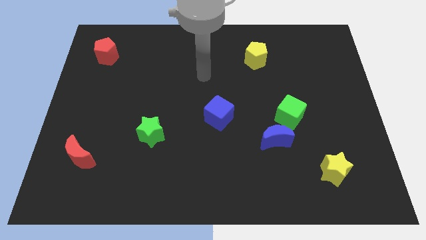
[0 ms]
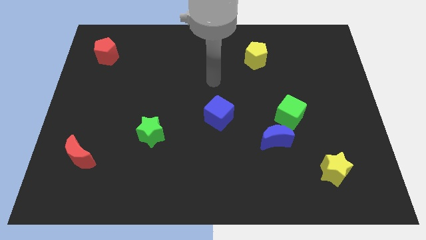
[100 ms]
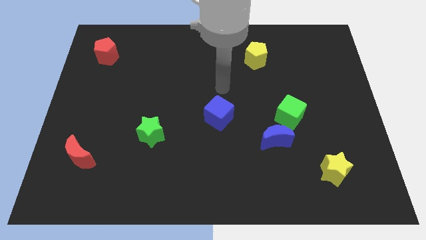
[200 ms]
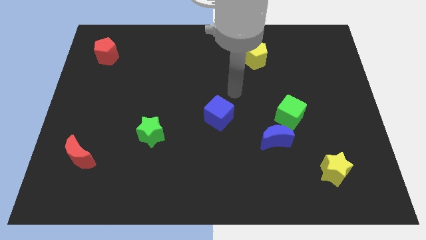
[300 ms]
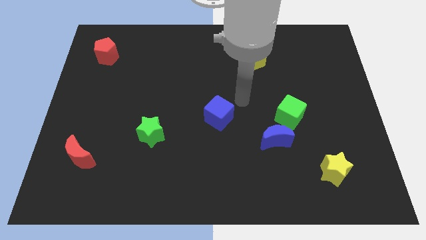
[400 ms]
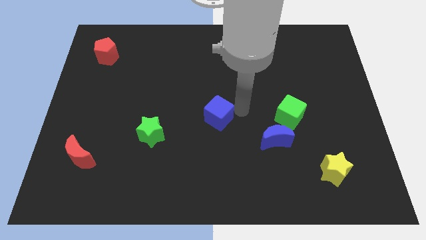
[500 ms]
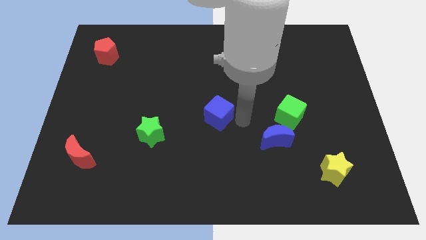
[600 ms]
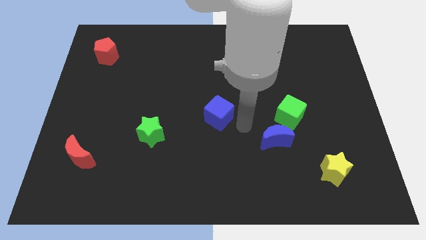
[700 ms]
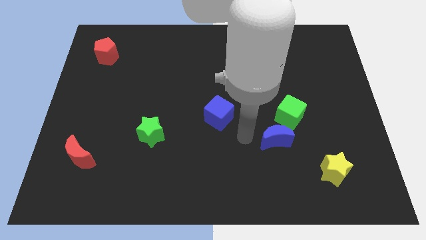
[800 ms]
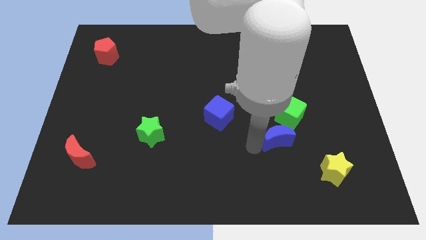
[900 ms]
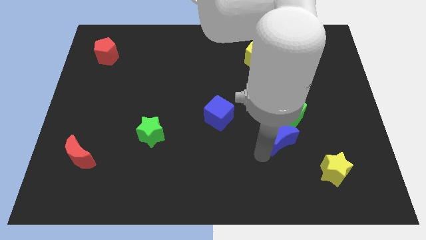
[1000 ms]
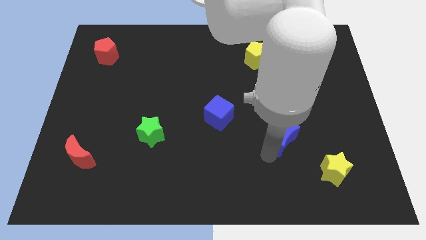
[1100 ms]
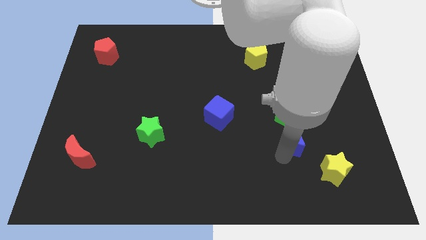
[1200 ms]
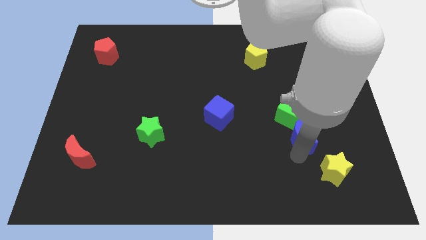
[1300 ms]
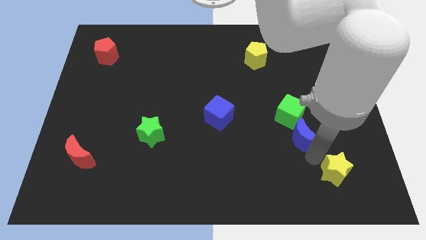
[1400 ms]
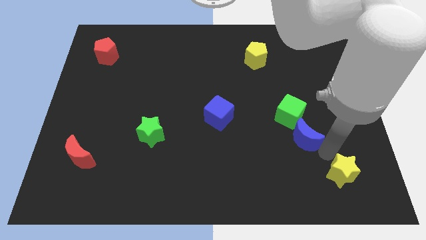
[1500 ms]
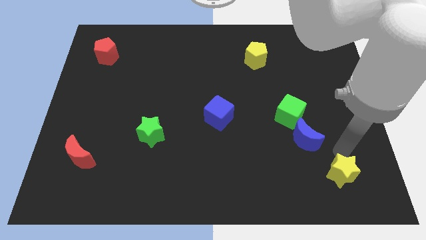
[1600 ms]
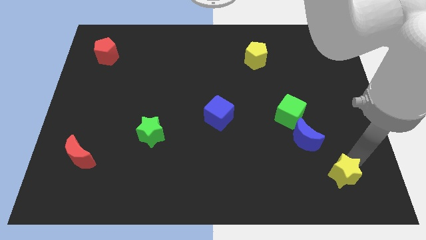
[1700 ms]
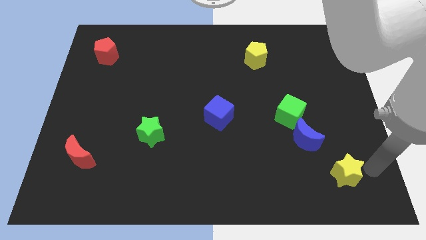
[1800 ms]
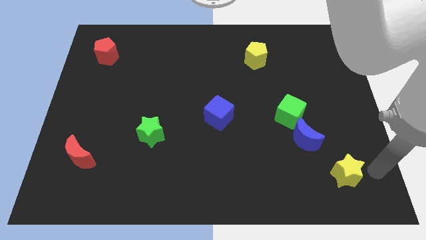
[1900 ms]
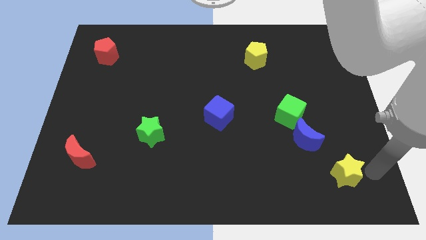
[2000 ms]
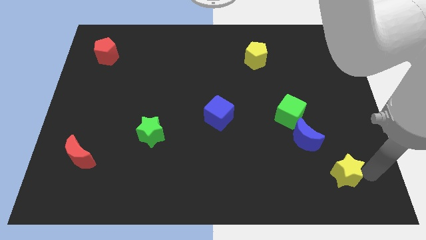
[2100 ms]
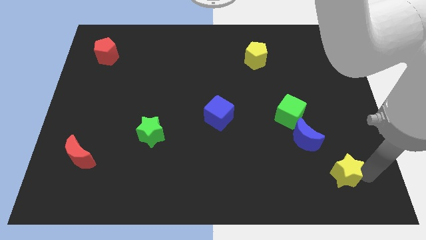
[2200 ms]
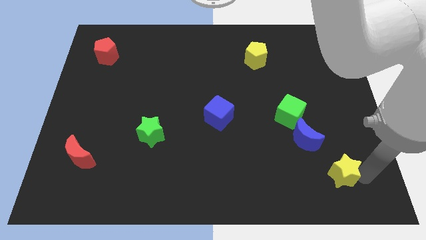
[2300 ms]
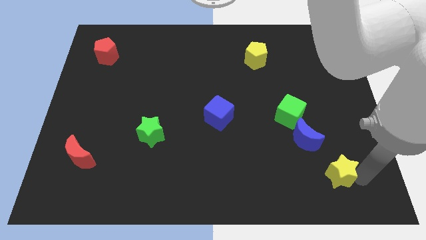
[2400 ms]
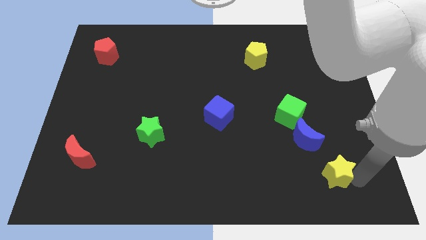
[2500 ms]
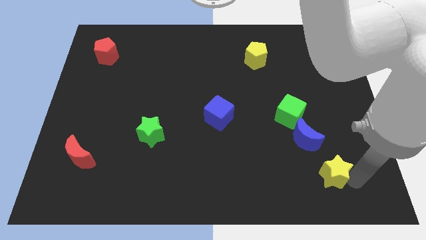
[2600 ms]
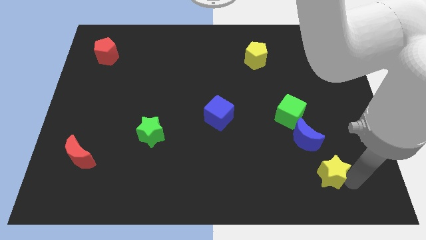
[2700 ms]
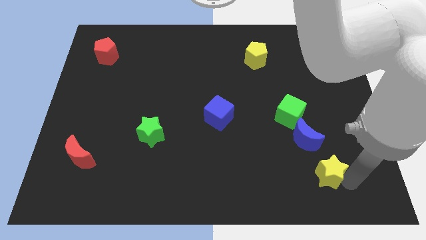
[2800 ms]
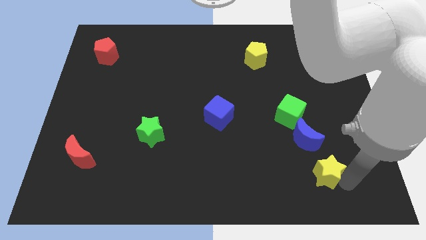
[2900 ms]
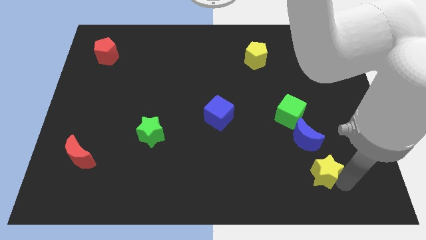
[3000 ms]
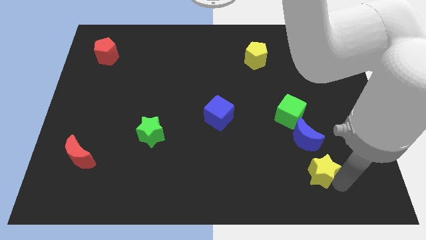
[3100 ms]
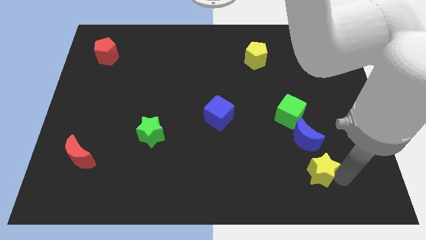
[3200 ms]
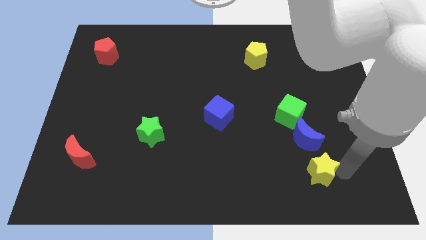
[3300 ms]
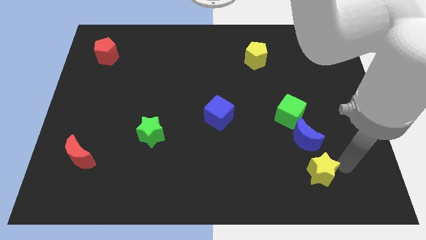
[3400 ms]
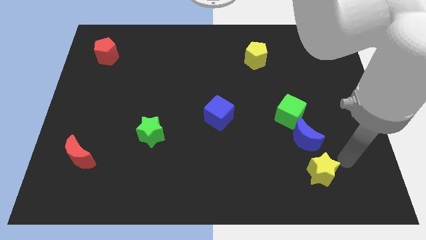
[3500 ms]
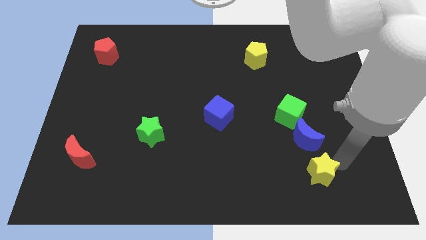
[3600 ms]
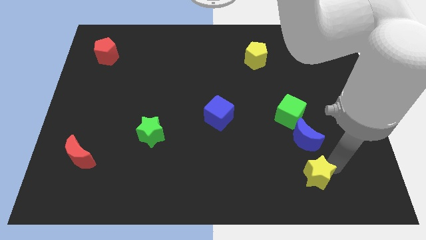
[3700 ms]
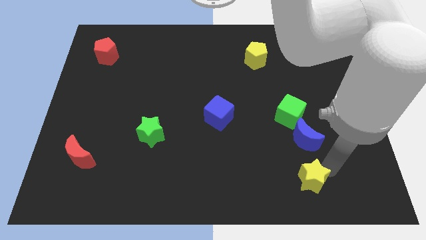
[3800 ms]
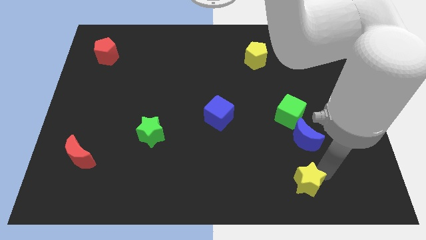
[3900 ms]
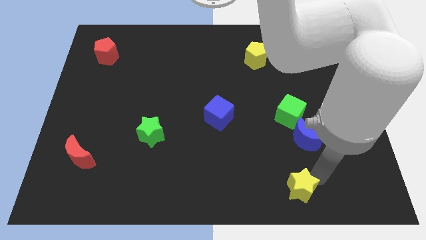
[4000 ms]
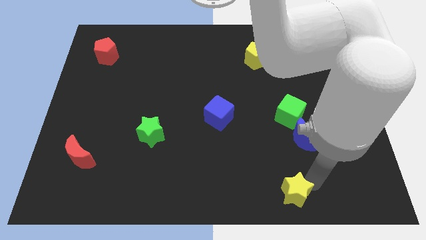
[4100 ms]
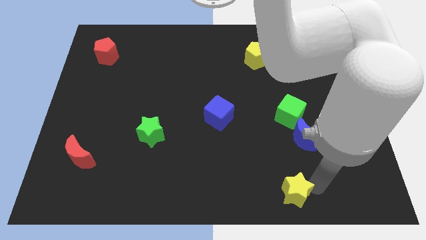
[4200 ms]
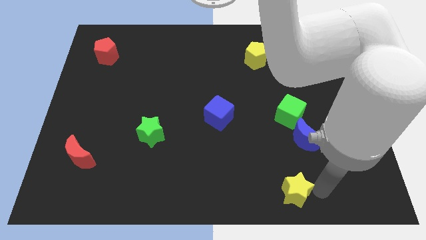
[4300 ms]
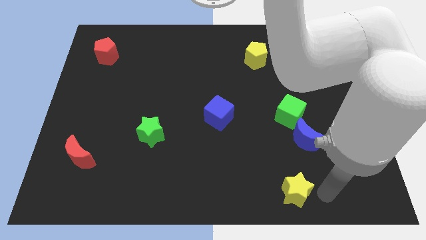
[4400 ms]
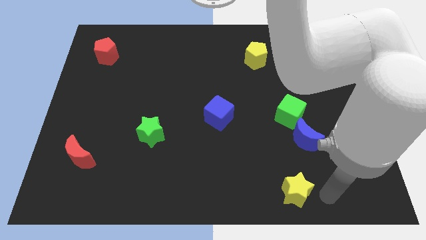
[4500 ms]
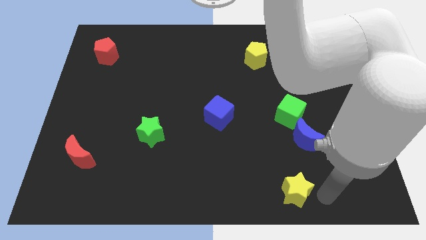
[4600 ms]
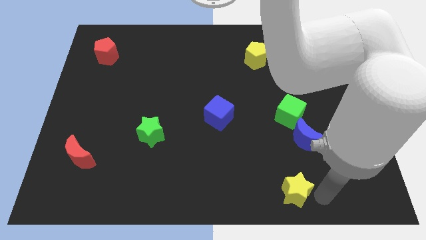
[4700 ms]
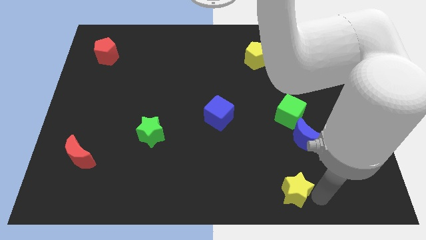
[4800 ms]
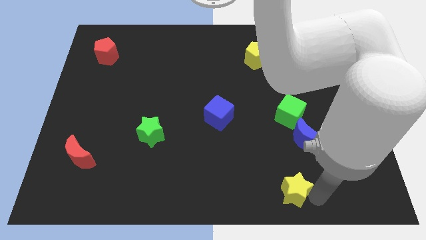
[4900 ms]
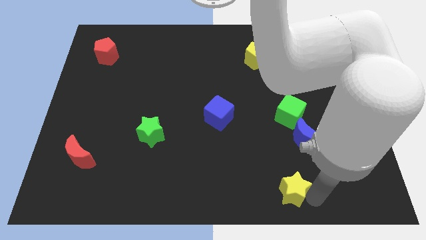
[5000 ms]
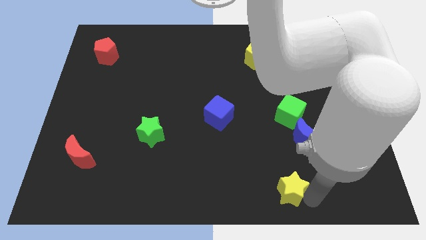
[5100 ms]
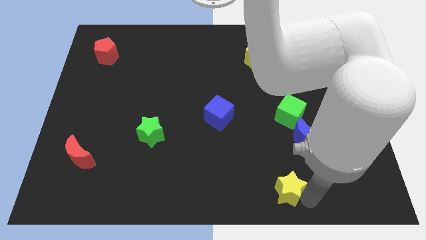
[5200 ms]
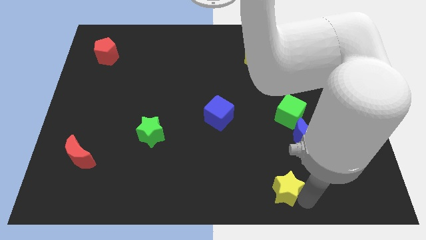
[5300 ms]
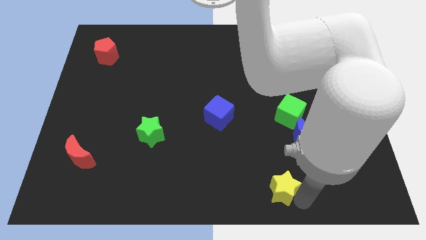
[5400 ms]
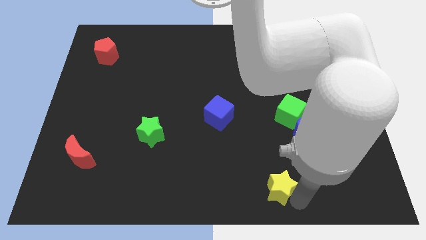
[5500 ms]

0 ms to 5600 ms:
move the yellow star to the bottom

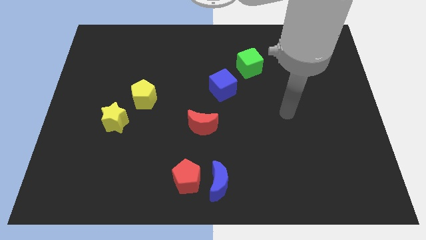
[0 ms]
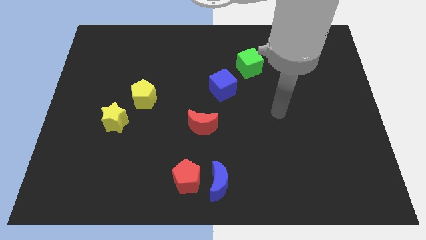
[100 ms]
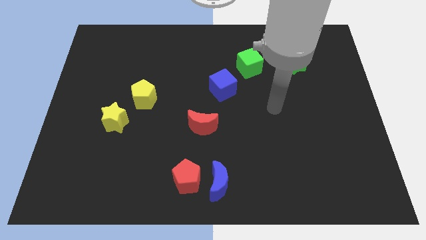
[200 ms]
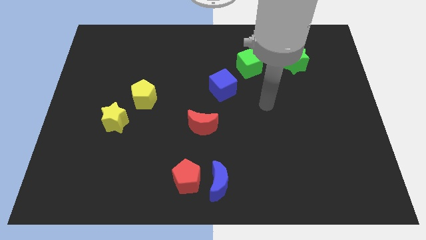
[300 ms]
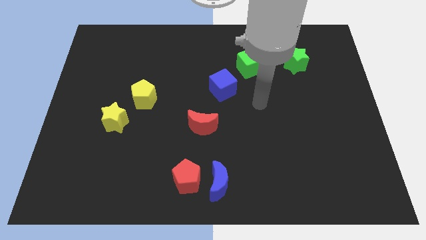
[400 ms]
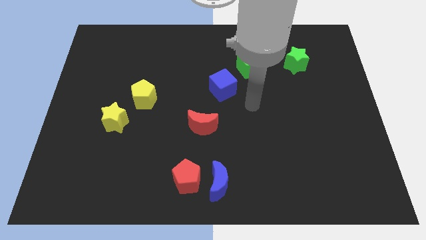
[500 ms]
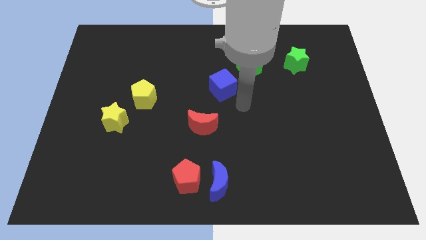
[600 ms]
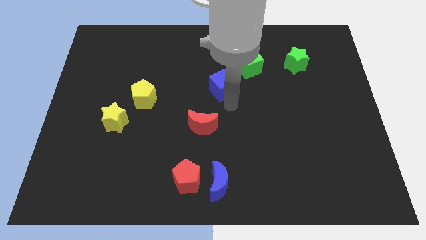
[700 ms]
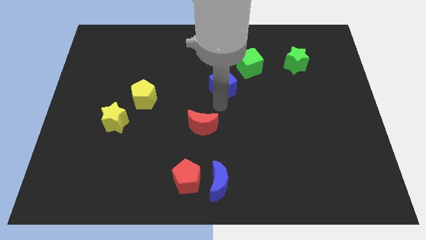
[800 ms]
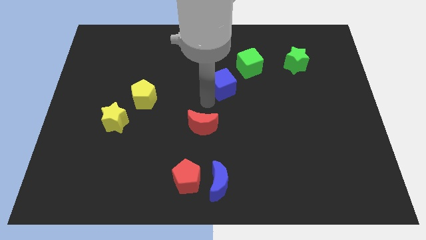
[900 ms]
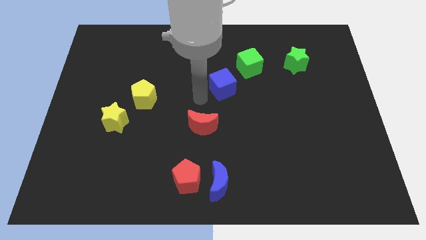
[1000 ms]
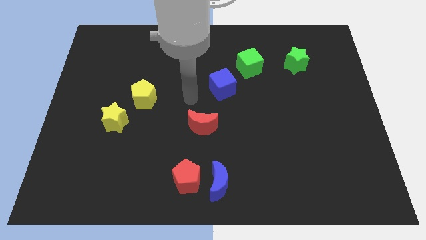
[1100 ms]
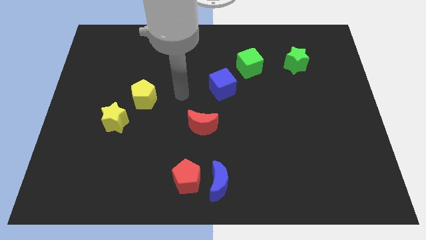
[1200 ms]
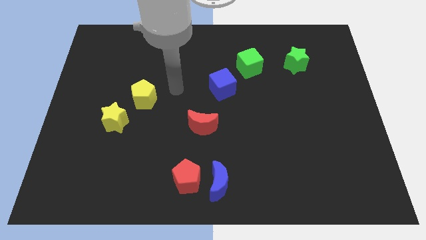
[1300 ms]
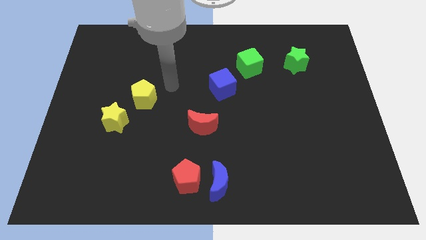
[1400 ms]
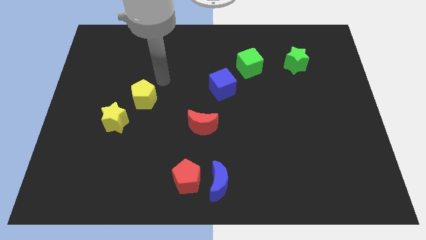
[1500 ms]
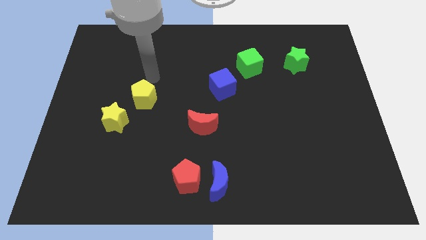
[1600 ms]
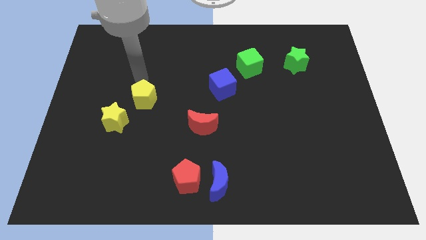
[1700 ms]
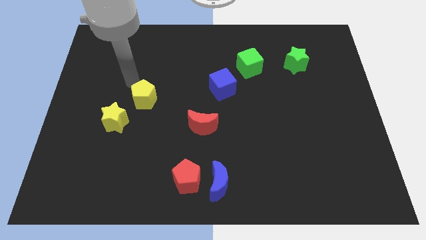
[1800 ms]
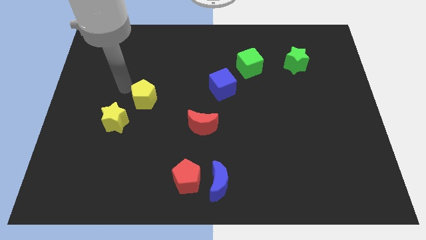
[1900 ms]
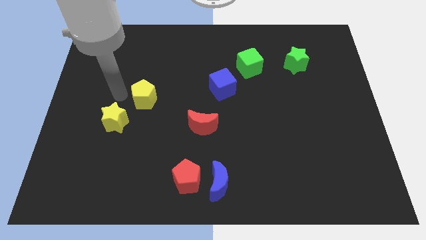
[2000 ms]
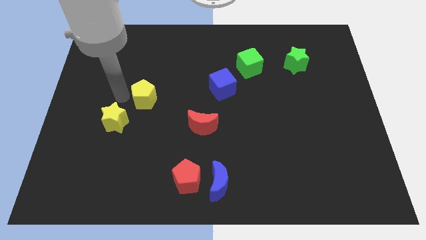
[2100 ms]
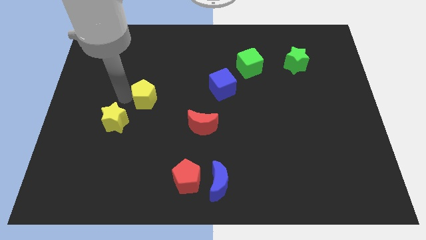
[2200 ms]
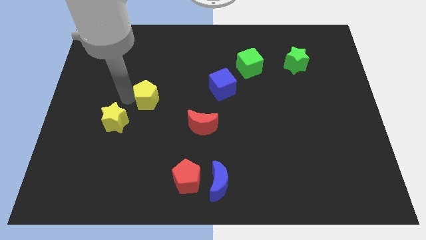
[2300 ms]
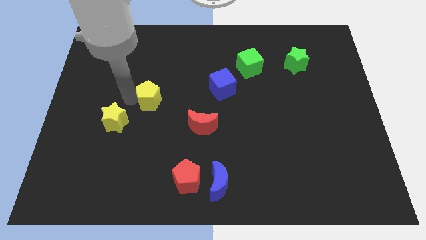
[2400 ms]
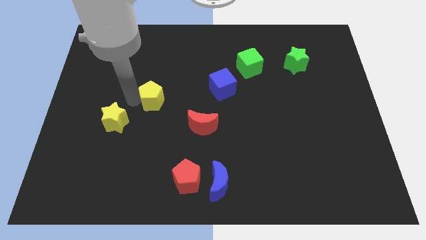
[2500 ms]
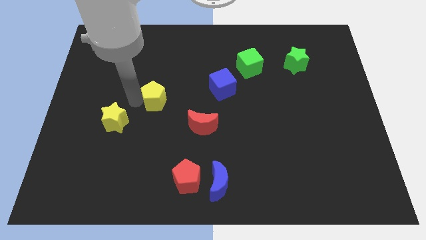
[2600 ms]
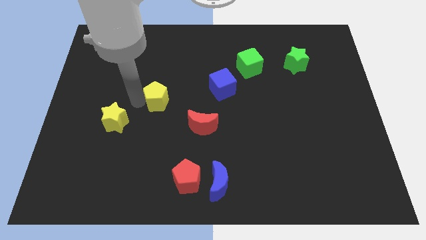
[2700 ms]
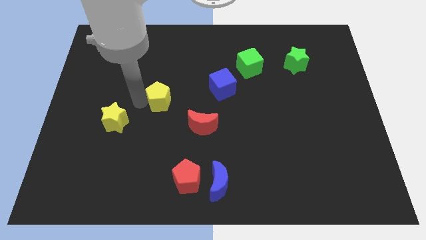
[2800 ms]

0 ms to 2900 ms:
move the yellow pentagon to the center
